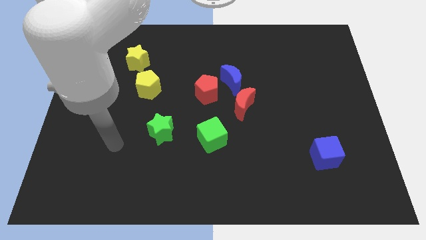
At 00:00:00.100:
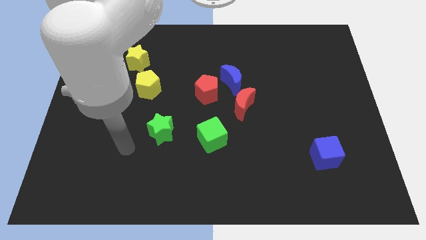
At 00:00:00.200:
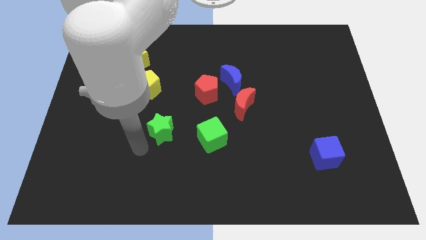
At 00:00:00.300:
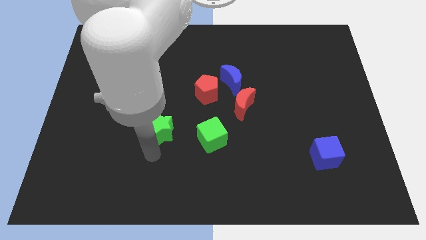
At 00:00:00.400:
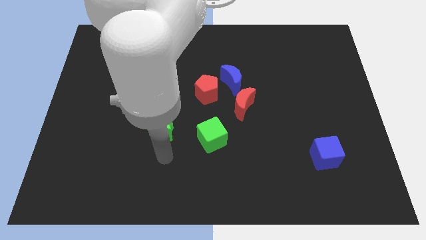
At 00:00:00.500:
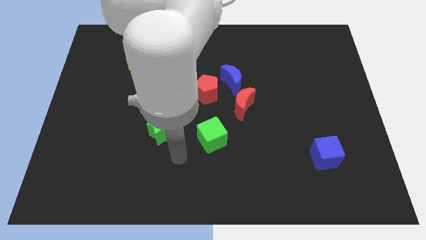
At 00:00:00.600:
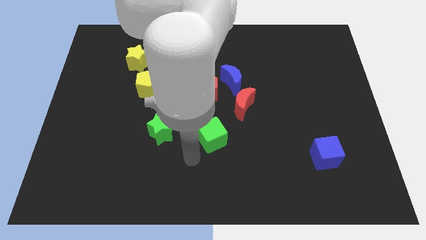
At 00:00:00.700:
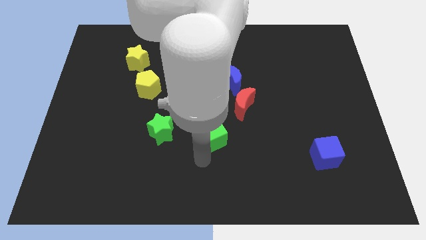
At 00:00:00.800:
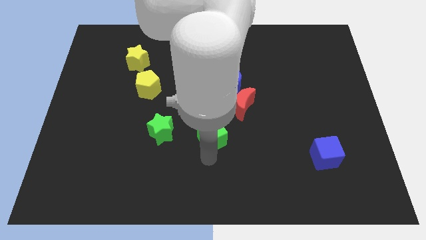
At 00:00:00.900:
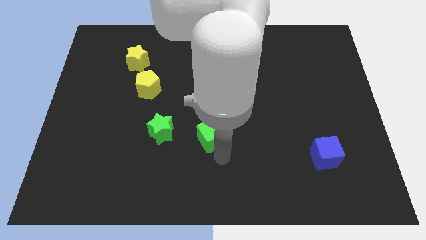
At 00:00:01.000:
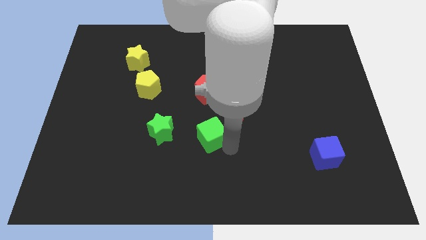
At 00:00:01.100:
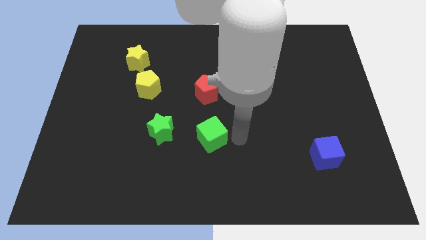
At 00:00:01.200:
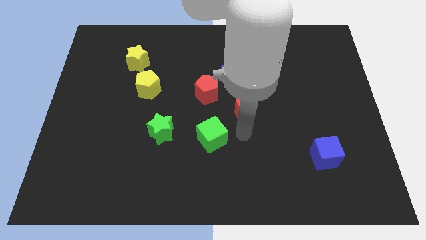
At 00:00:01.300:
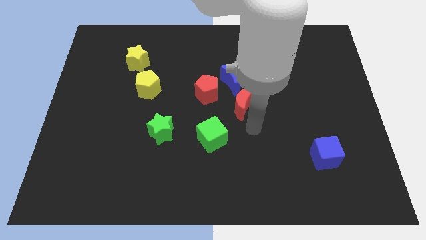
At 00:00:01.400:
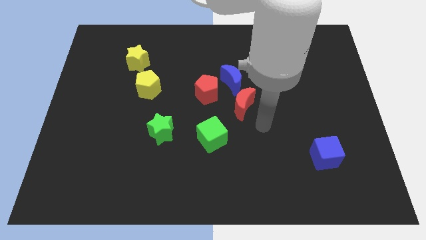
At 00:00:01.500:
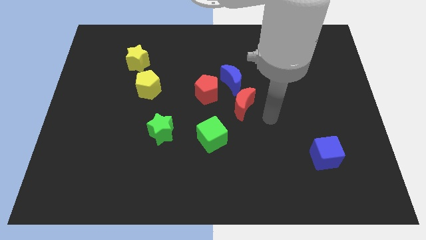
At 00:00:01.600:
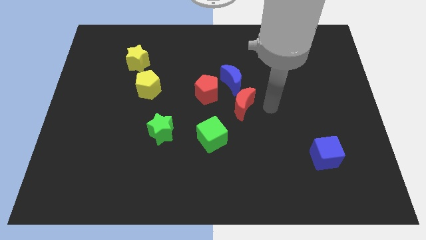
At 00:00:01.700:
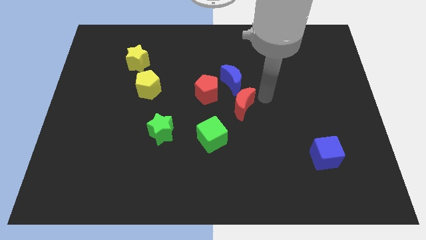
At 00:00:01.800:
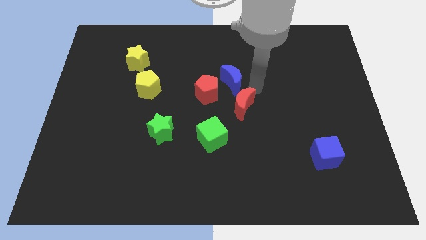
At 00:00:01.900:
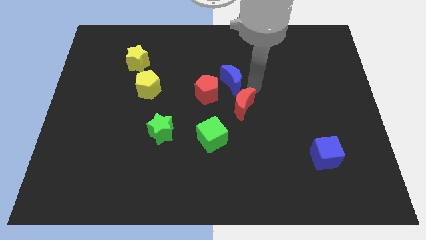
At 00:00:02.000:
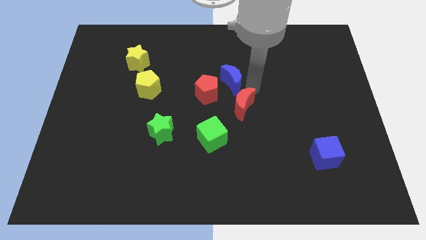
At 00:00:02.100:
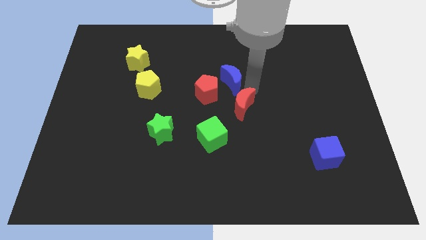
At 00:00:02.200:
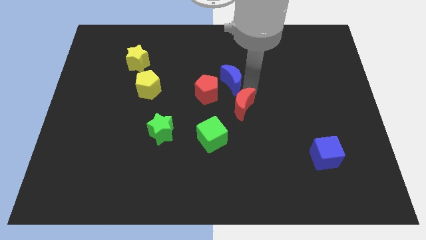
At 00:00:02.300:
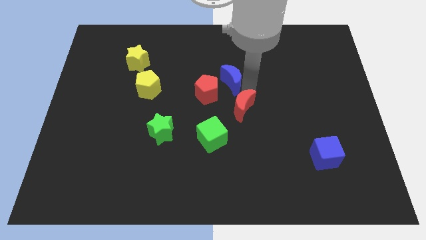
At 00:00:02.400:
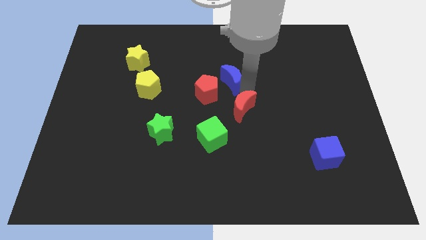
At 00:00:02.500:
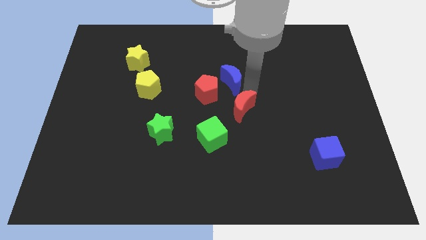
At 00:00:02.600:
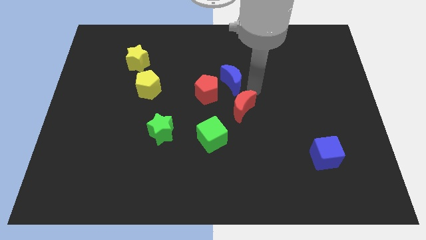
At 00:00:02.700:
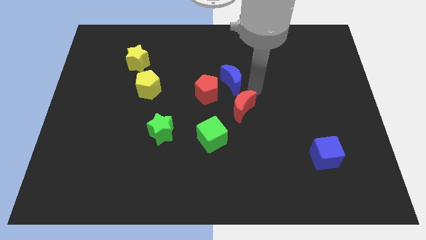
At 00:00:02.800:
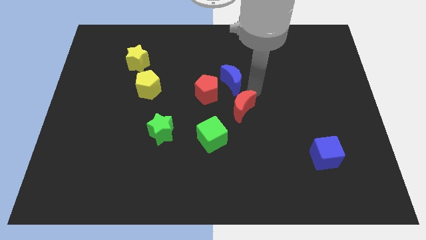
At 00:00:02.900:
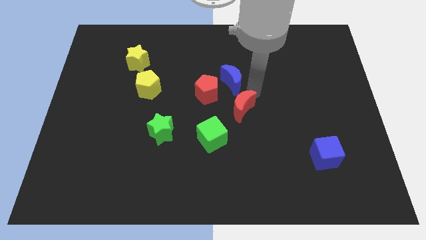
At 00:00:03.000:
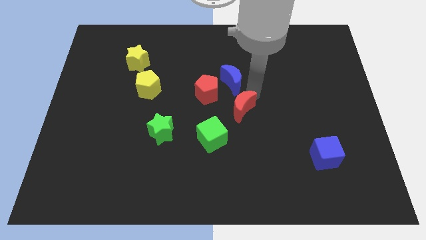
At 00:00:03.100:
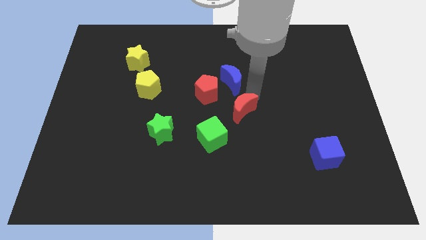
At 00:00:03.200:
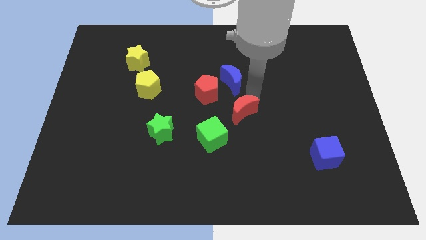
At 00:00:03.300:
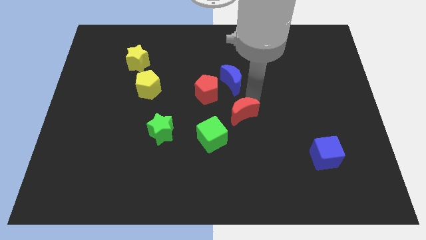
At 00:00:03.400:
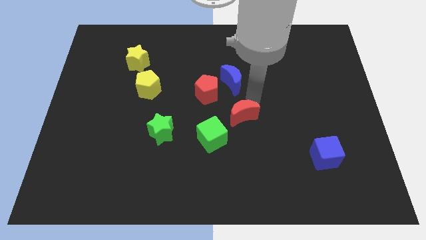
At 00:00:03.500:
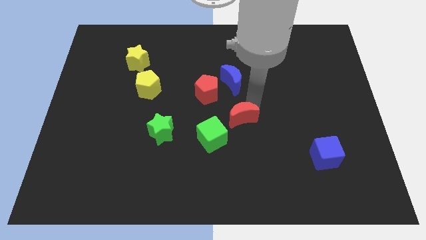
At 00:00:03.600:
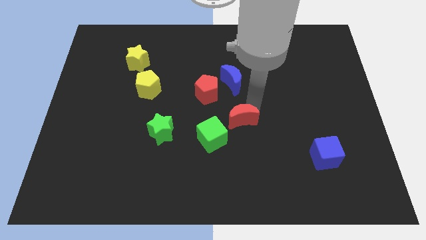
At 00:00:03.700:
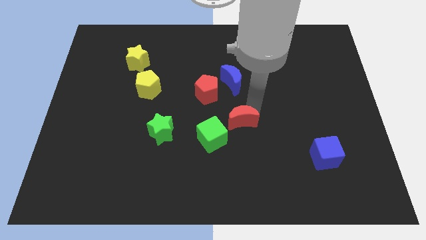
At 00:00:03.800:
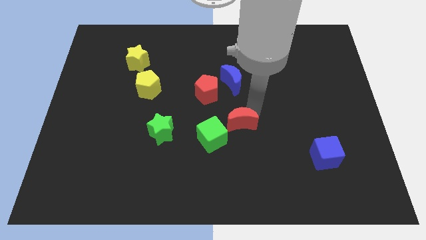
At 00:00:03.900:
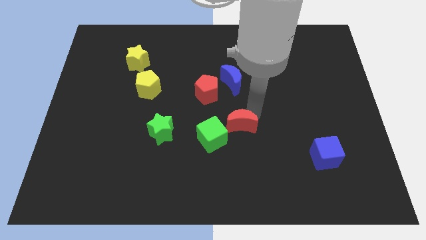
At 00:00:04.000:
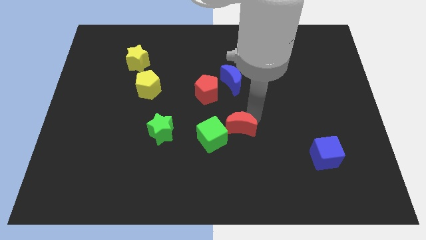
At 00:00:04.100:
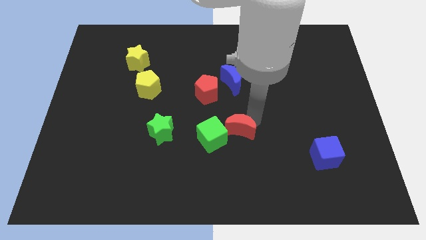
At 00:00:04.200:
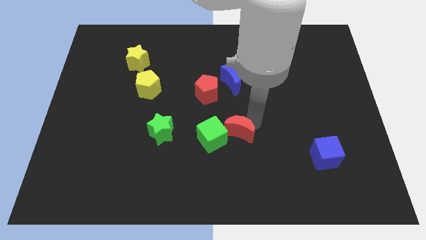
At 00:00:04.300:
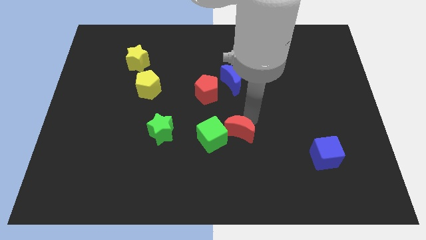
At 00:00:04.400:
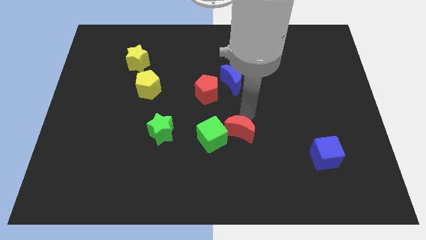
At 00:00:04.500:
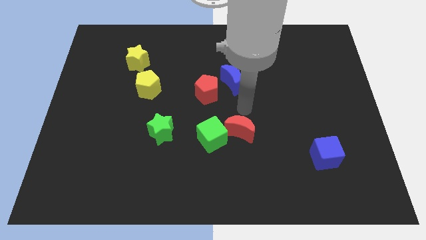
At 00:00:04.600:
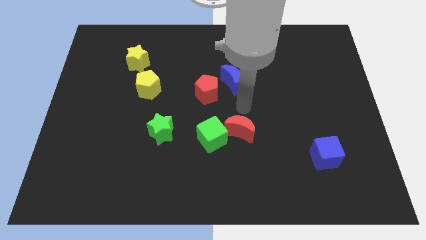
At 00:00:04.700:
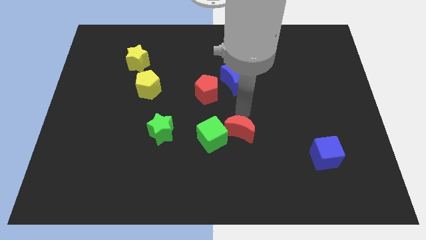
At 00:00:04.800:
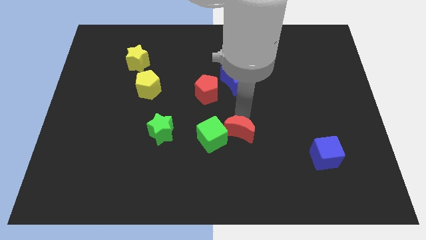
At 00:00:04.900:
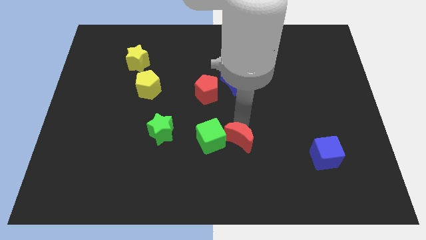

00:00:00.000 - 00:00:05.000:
put the red moon to the bottom right side of the green cube

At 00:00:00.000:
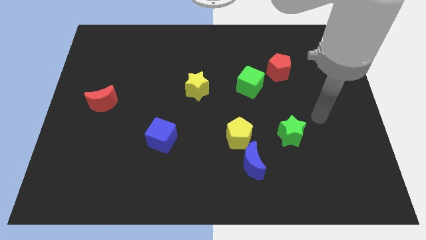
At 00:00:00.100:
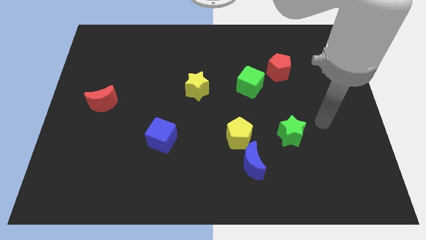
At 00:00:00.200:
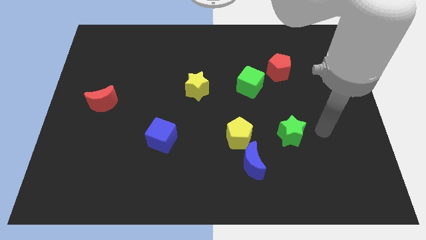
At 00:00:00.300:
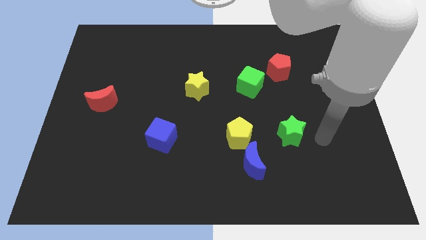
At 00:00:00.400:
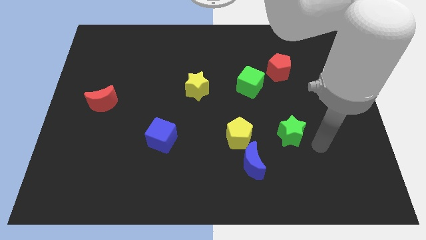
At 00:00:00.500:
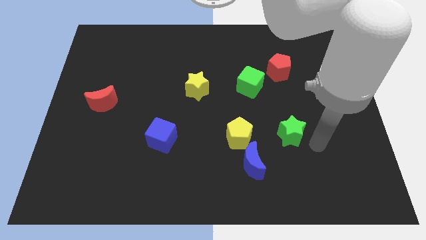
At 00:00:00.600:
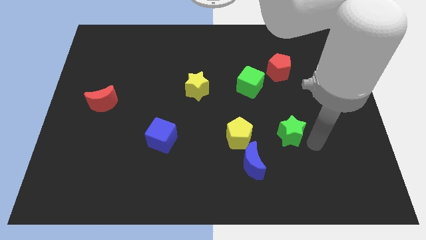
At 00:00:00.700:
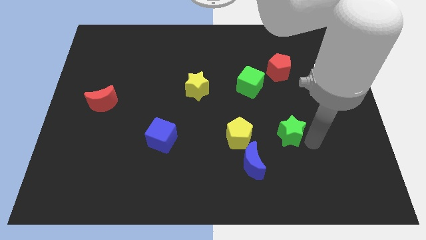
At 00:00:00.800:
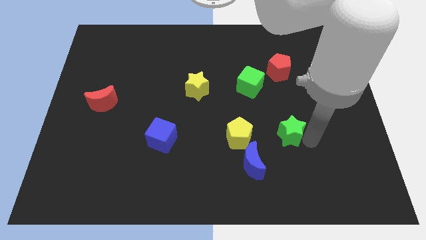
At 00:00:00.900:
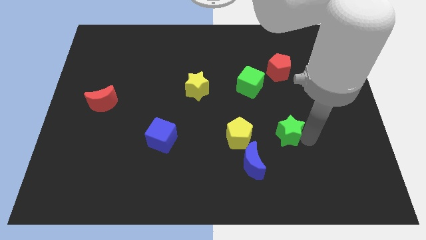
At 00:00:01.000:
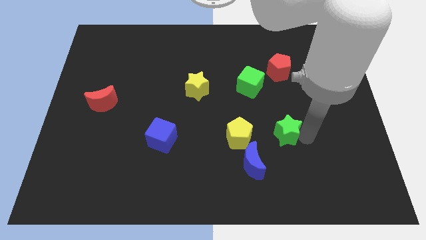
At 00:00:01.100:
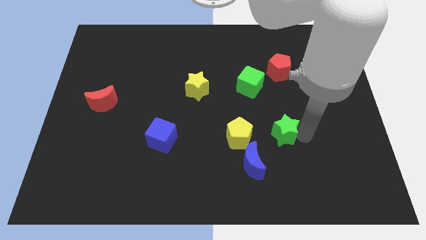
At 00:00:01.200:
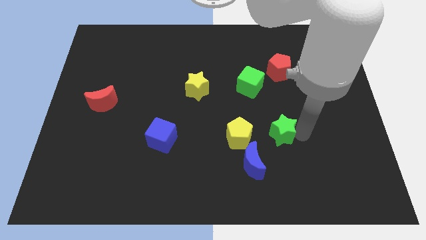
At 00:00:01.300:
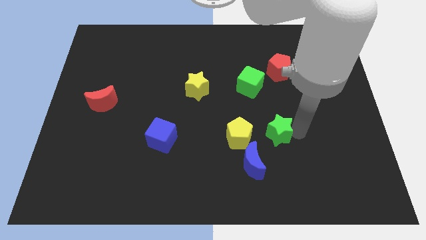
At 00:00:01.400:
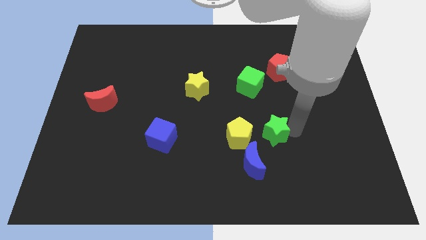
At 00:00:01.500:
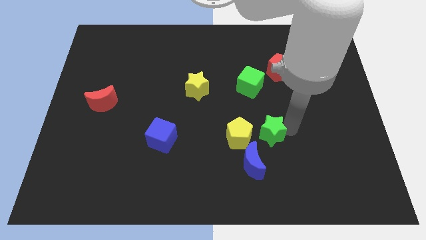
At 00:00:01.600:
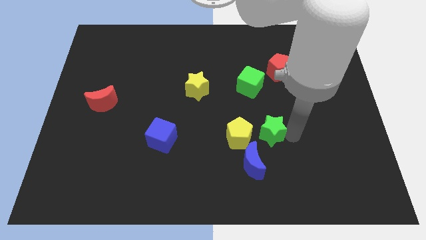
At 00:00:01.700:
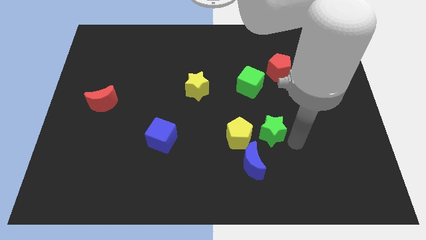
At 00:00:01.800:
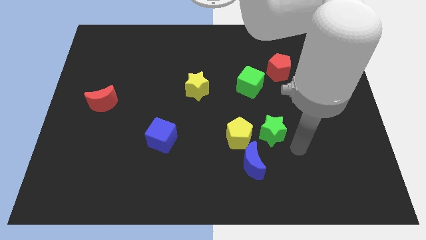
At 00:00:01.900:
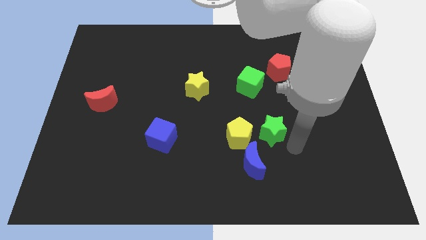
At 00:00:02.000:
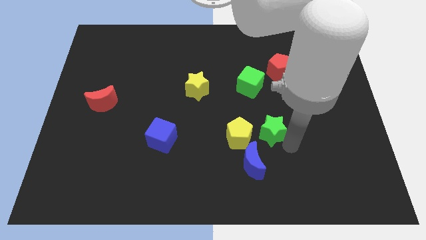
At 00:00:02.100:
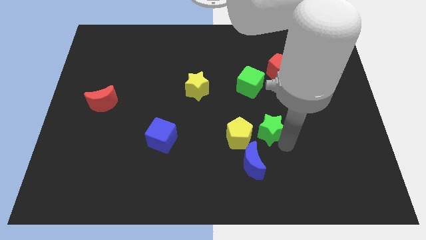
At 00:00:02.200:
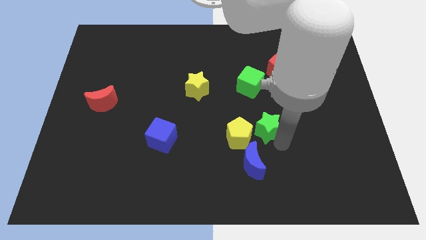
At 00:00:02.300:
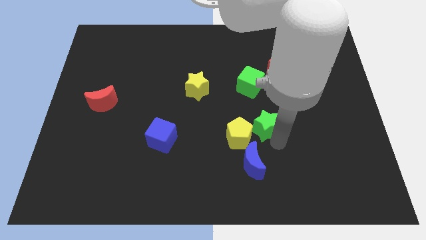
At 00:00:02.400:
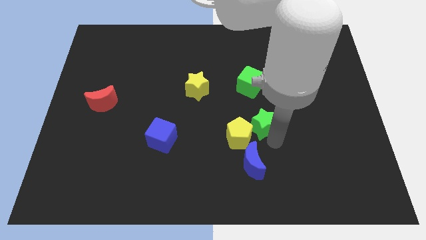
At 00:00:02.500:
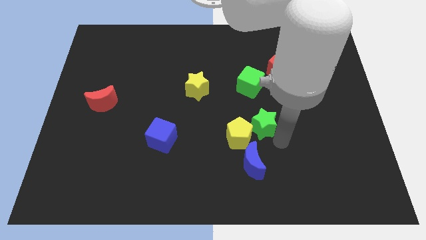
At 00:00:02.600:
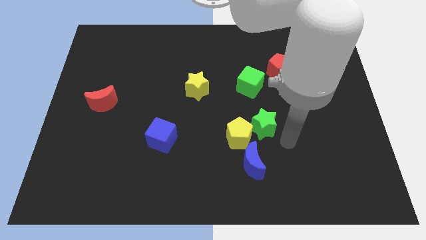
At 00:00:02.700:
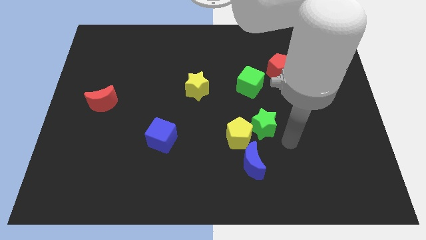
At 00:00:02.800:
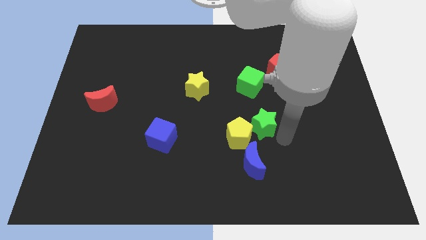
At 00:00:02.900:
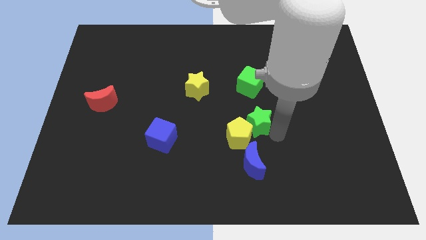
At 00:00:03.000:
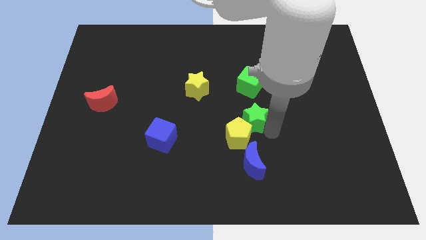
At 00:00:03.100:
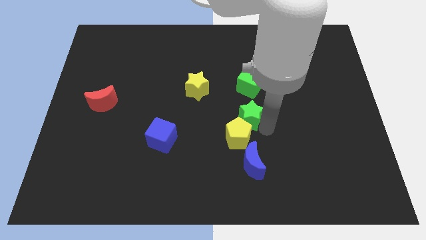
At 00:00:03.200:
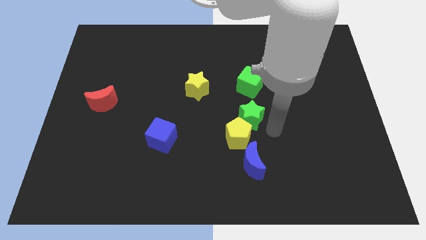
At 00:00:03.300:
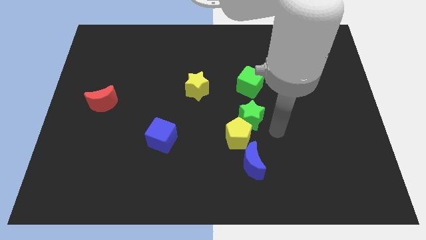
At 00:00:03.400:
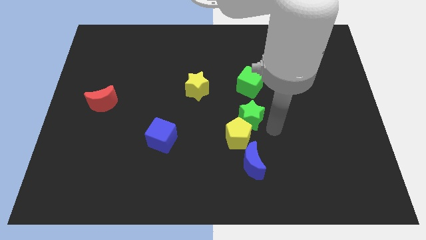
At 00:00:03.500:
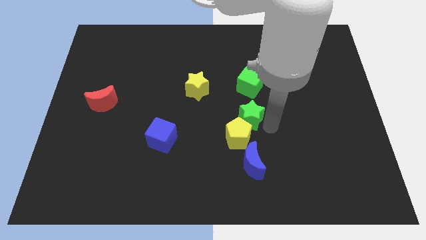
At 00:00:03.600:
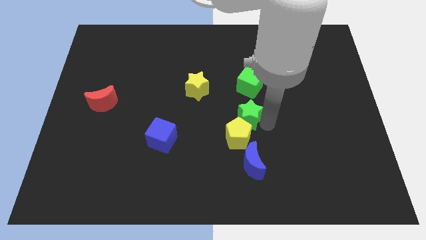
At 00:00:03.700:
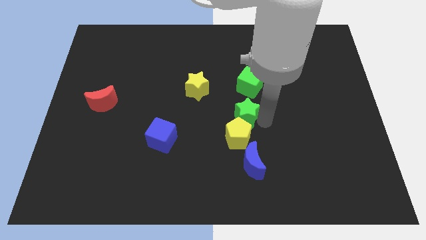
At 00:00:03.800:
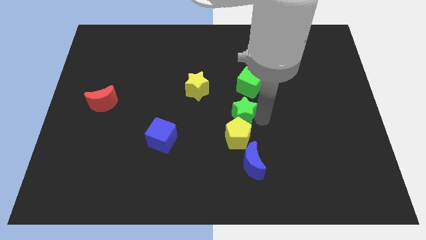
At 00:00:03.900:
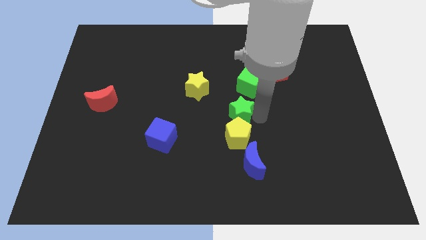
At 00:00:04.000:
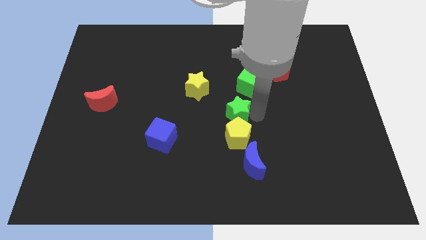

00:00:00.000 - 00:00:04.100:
push the green star diagonally down and to the right of the yellow star
